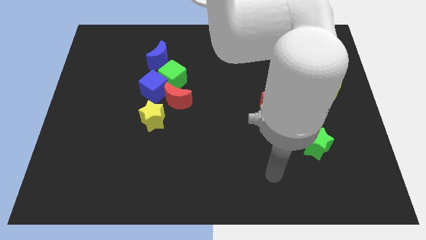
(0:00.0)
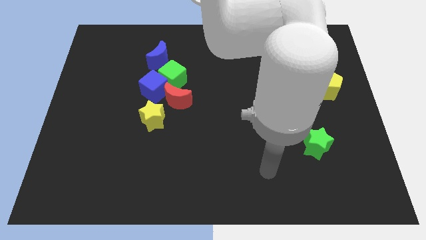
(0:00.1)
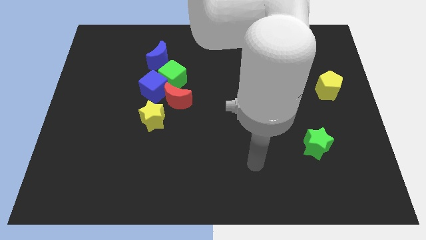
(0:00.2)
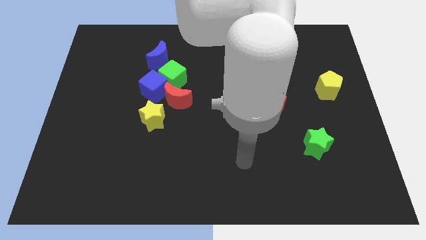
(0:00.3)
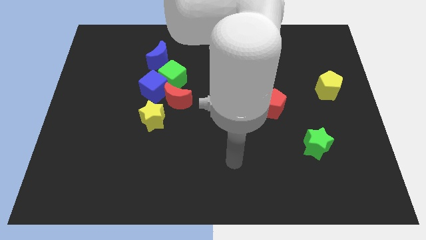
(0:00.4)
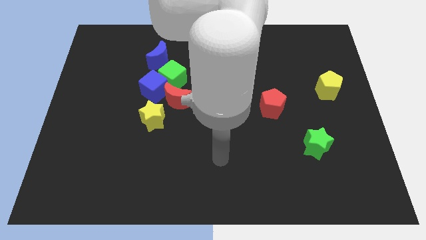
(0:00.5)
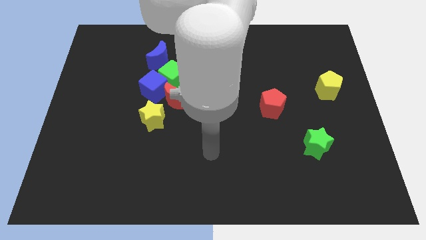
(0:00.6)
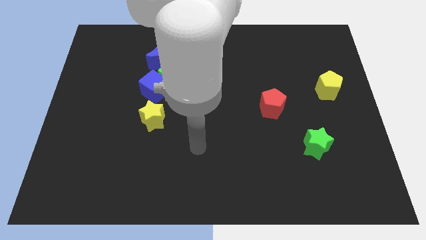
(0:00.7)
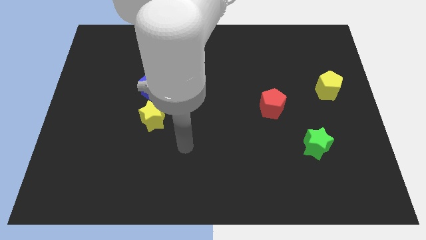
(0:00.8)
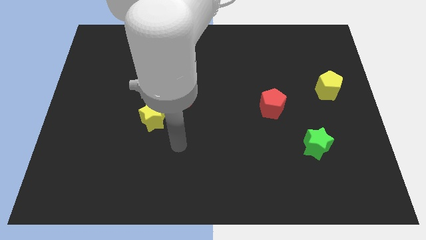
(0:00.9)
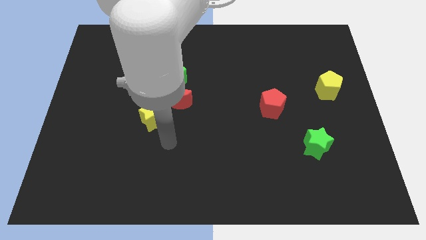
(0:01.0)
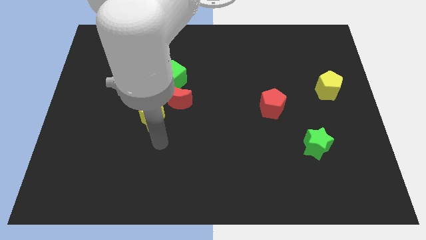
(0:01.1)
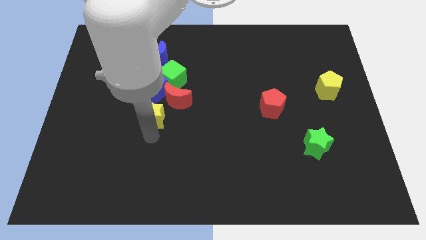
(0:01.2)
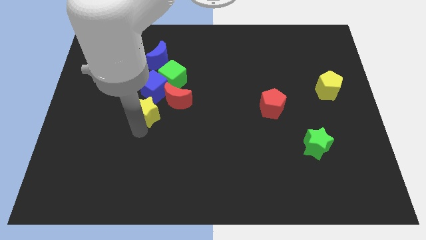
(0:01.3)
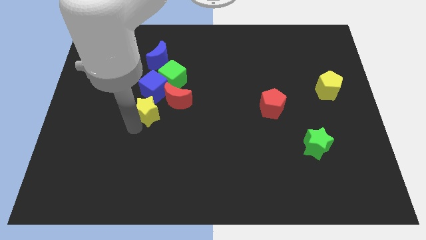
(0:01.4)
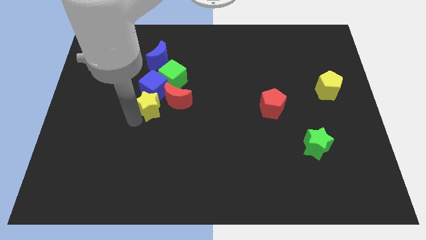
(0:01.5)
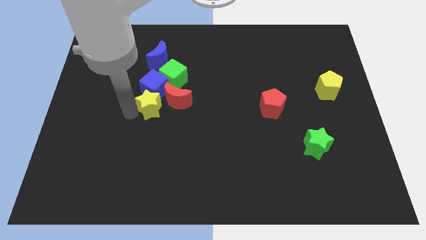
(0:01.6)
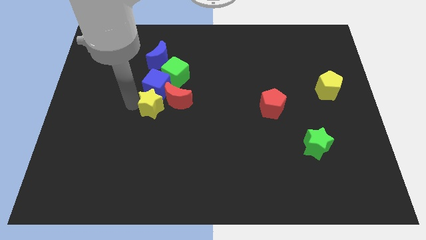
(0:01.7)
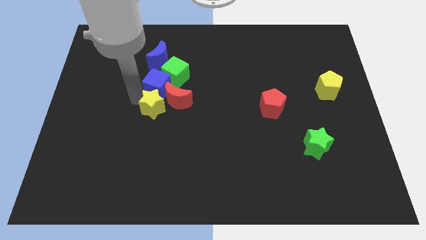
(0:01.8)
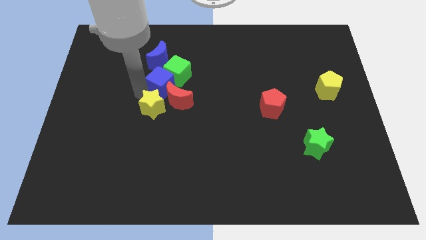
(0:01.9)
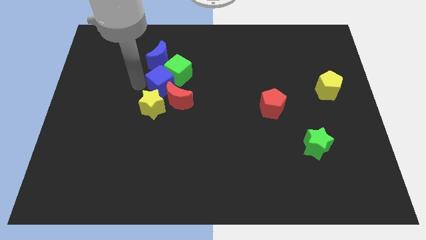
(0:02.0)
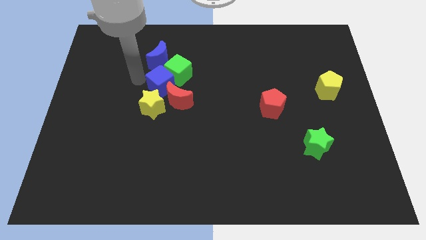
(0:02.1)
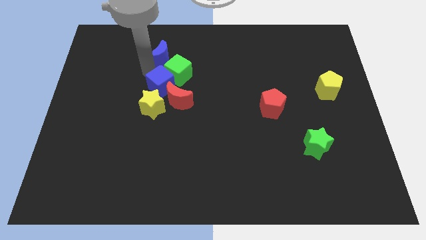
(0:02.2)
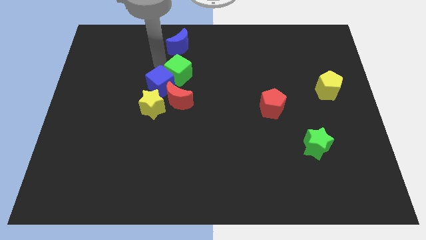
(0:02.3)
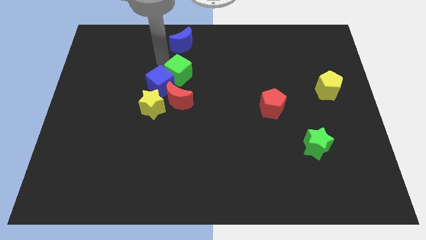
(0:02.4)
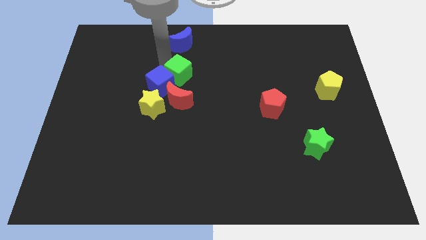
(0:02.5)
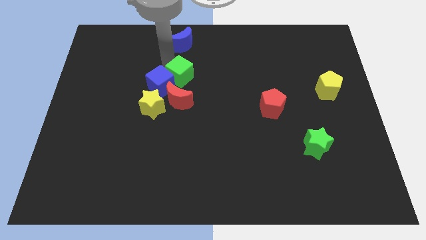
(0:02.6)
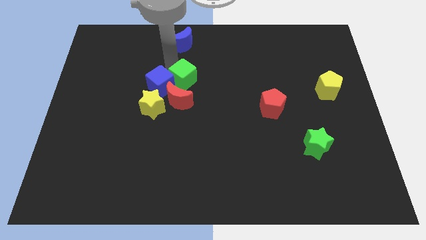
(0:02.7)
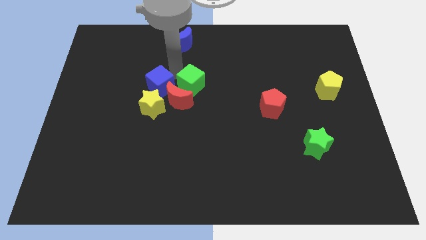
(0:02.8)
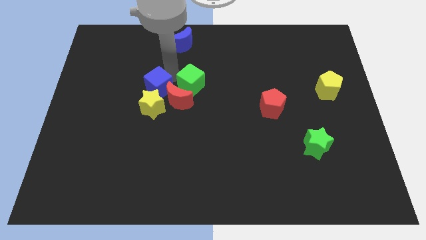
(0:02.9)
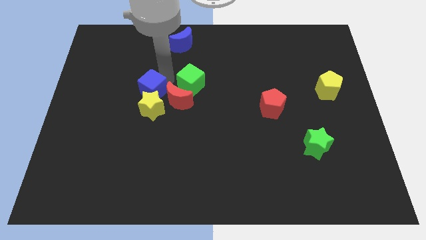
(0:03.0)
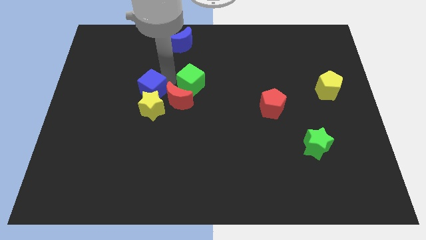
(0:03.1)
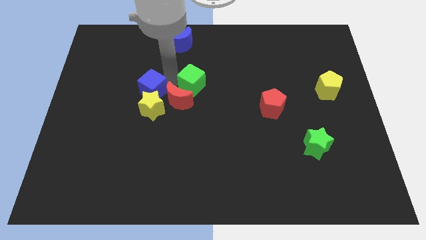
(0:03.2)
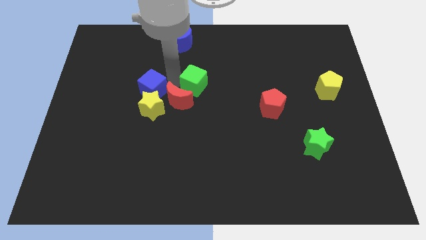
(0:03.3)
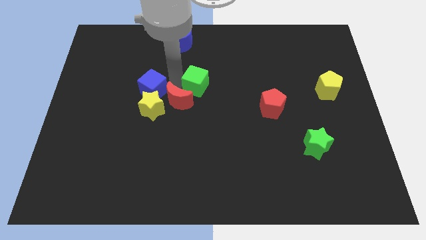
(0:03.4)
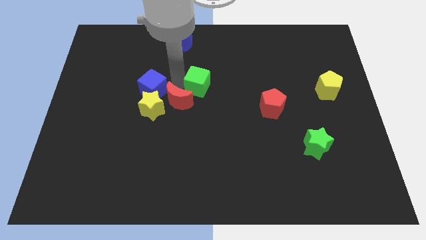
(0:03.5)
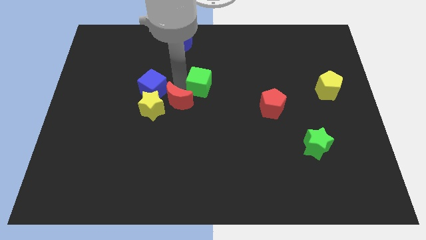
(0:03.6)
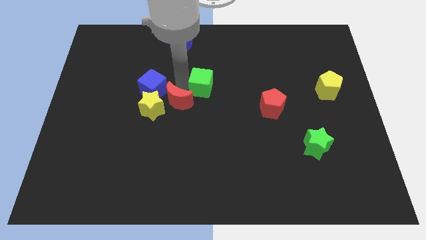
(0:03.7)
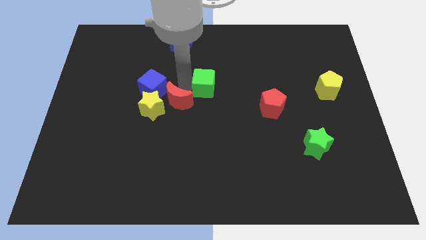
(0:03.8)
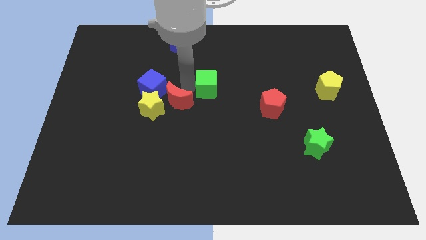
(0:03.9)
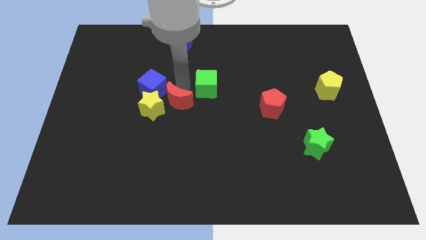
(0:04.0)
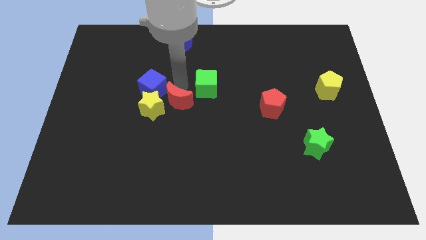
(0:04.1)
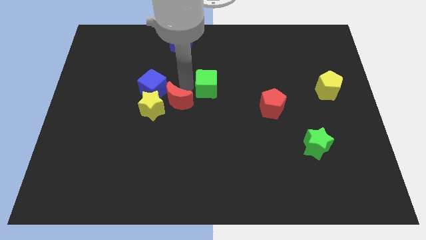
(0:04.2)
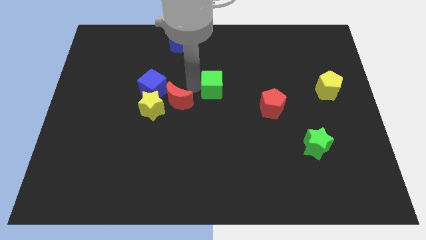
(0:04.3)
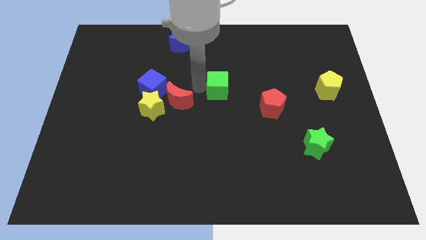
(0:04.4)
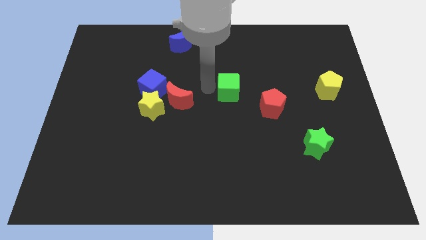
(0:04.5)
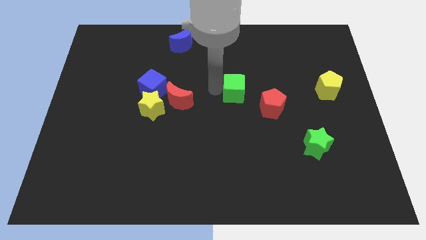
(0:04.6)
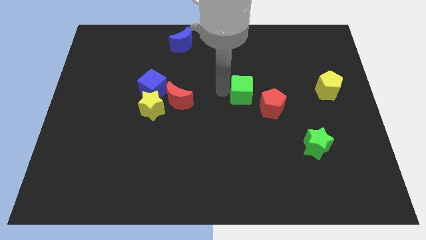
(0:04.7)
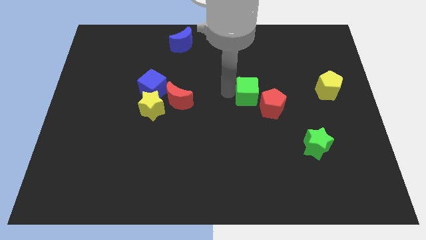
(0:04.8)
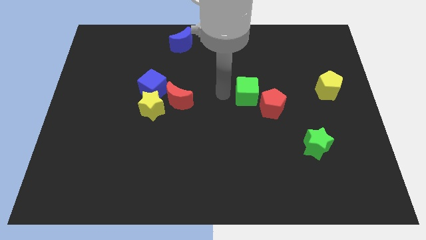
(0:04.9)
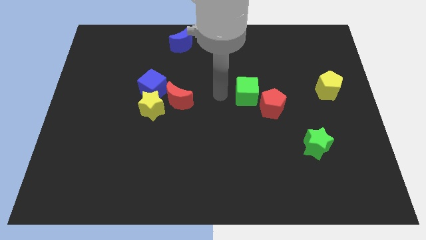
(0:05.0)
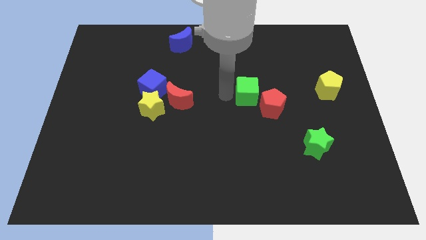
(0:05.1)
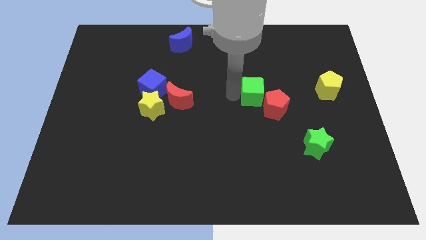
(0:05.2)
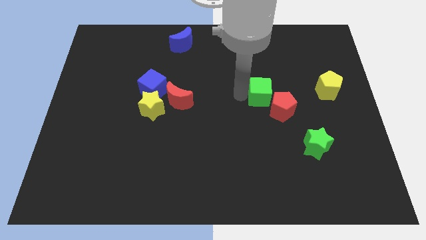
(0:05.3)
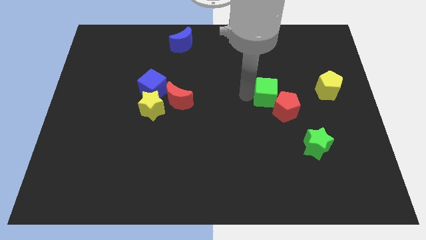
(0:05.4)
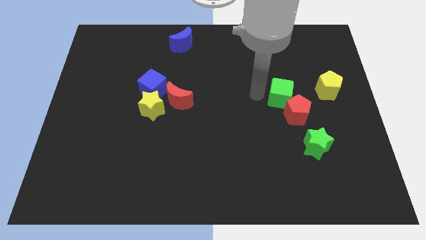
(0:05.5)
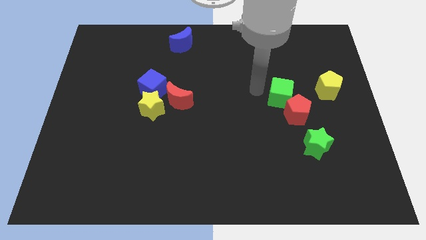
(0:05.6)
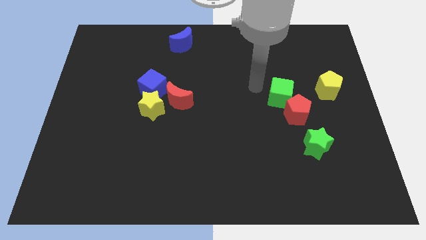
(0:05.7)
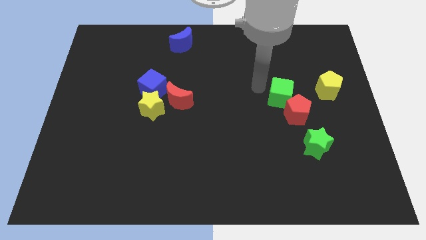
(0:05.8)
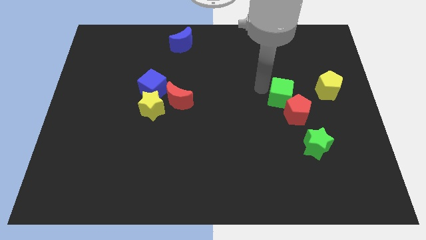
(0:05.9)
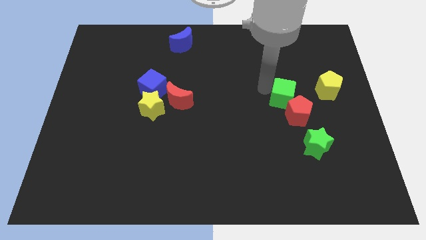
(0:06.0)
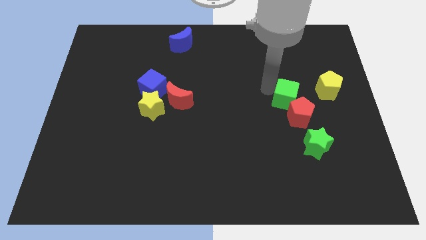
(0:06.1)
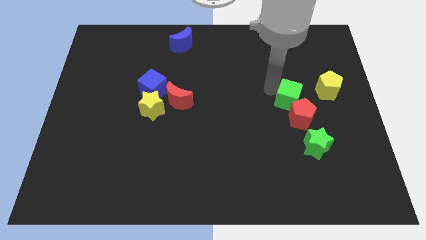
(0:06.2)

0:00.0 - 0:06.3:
slide the green cube above the green star

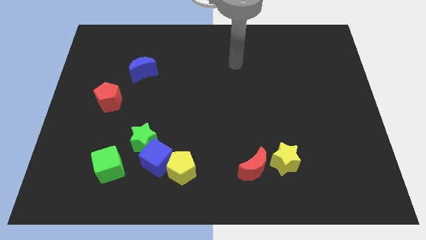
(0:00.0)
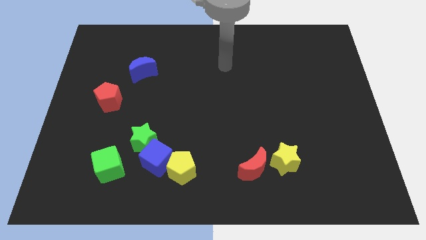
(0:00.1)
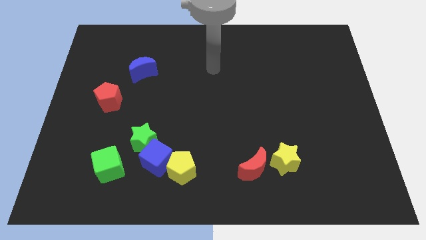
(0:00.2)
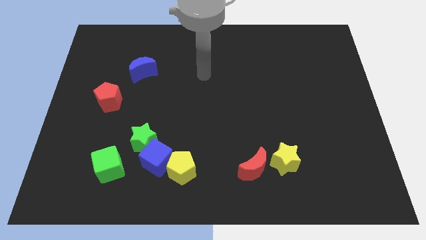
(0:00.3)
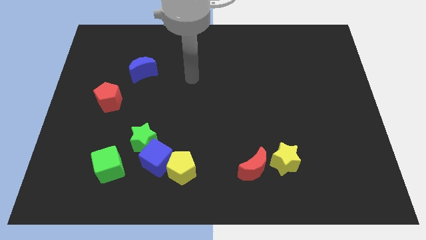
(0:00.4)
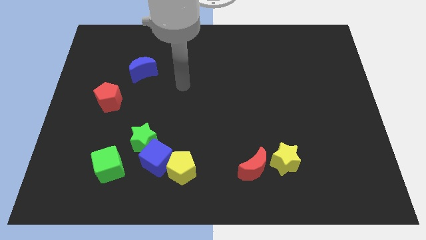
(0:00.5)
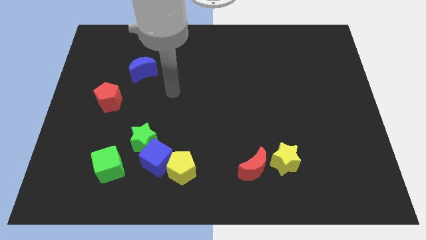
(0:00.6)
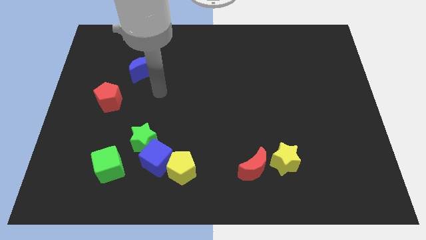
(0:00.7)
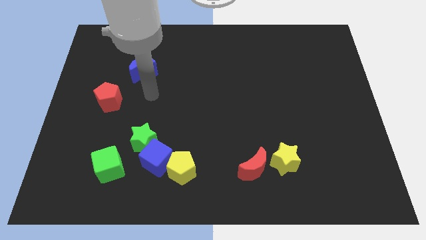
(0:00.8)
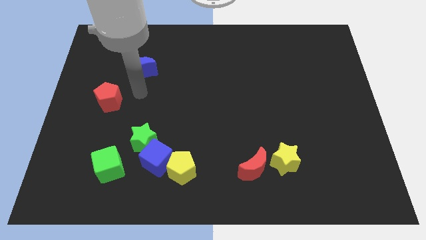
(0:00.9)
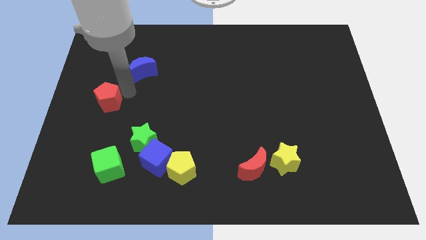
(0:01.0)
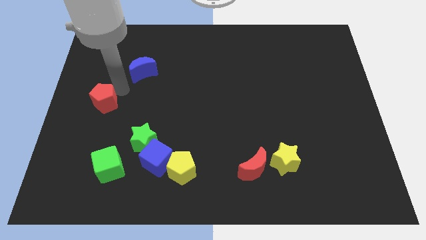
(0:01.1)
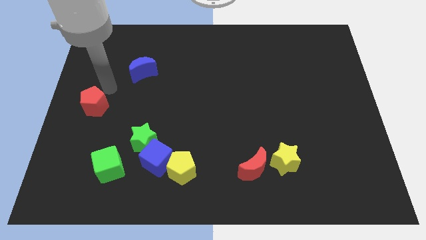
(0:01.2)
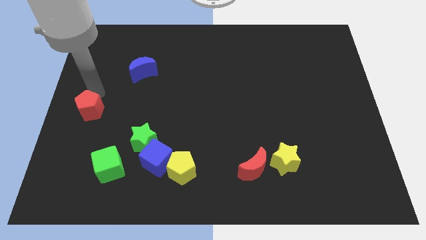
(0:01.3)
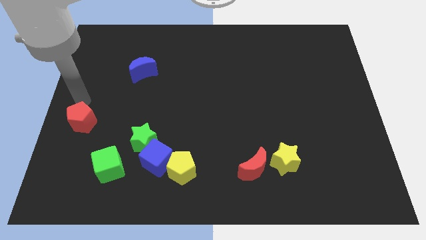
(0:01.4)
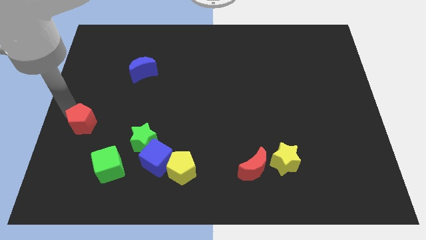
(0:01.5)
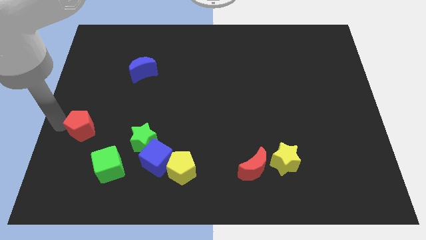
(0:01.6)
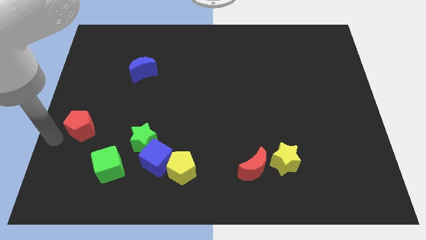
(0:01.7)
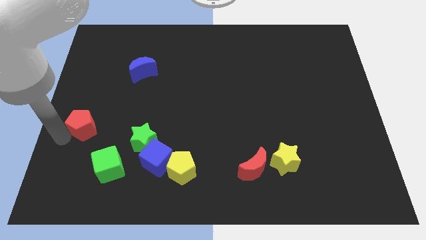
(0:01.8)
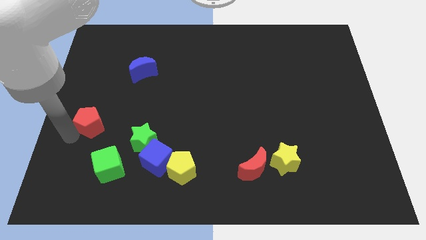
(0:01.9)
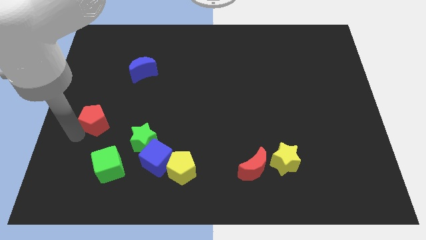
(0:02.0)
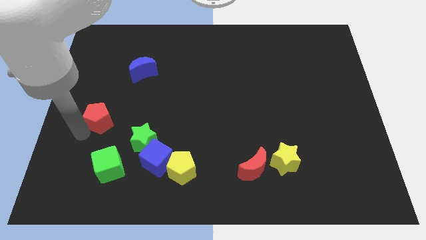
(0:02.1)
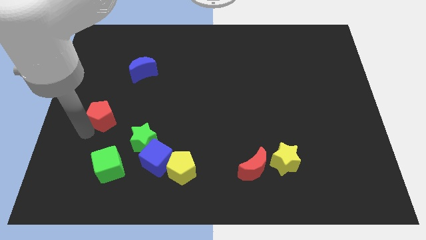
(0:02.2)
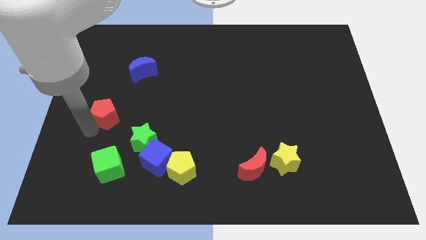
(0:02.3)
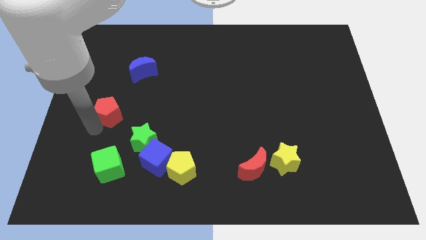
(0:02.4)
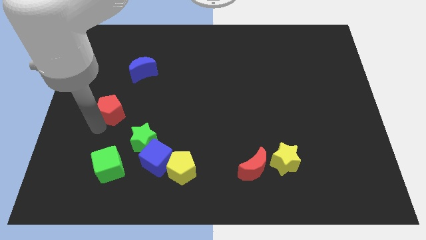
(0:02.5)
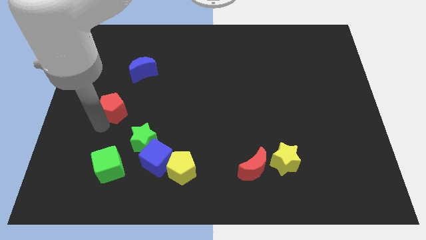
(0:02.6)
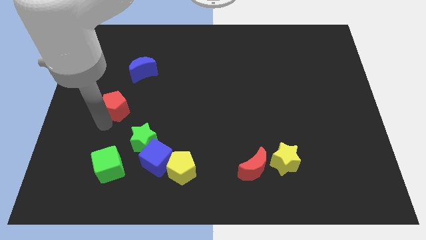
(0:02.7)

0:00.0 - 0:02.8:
put the red pentagon to the bottom side of the blue moon
